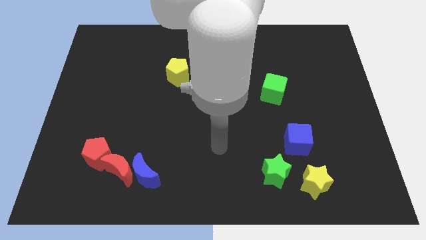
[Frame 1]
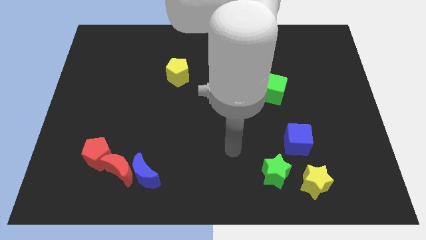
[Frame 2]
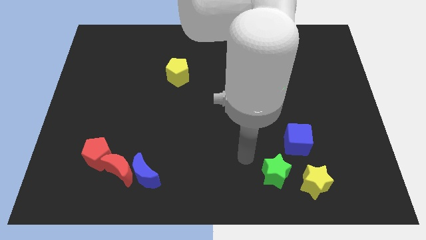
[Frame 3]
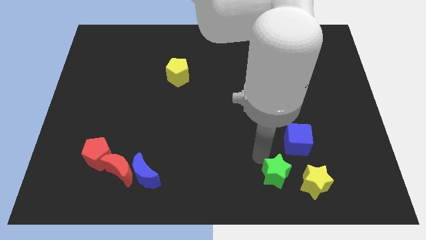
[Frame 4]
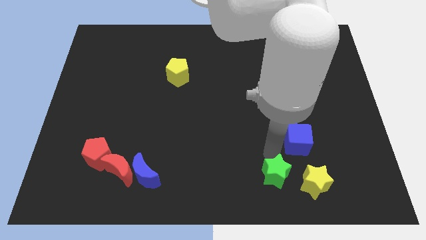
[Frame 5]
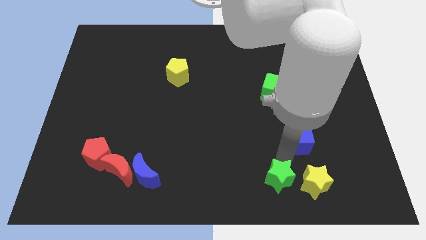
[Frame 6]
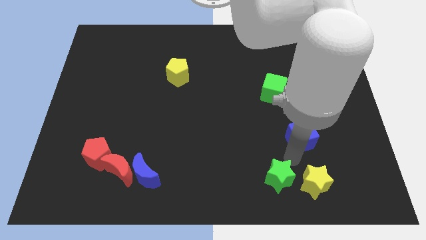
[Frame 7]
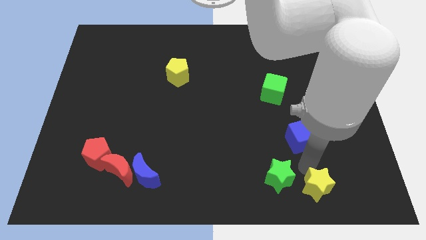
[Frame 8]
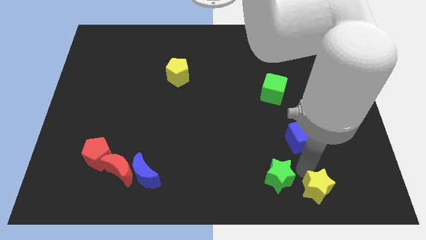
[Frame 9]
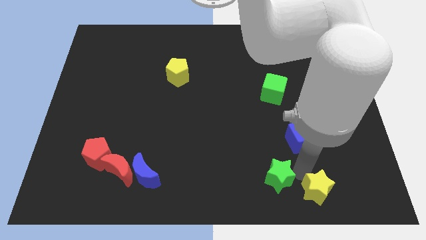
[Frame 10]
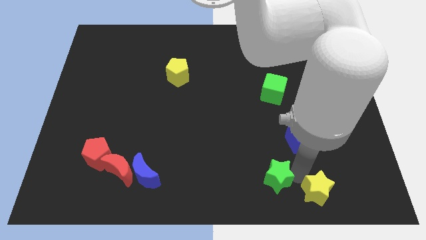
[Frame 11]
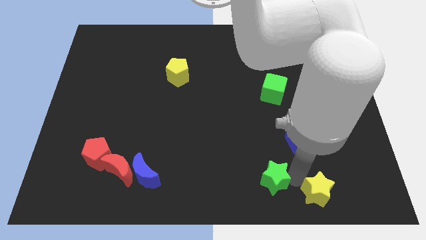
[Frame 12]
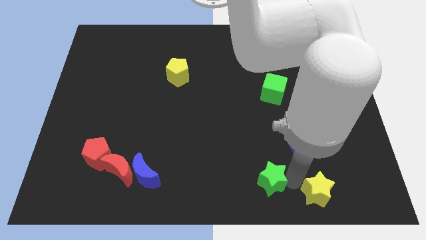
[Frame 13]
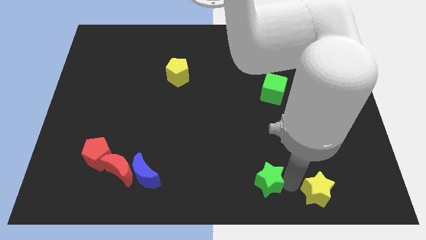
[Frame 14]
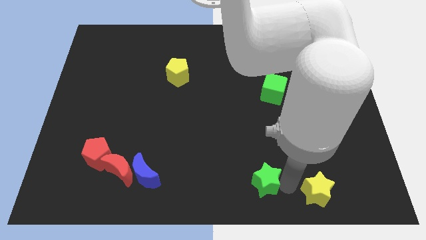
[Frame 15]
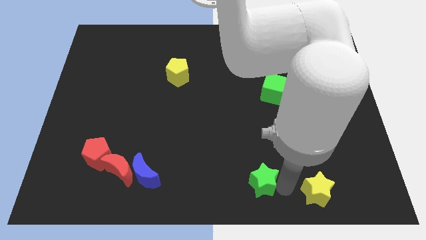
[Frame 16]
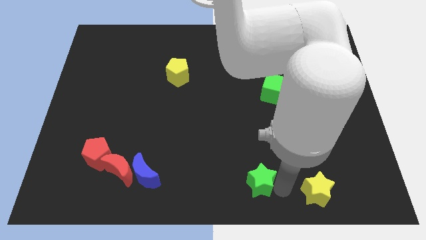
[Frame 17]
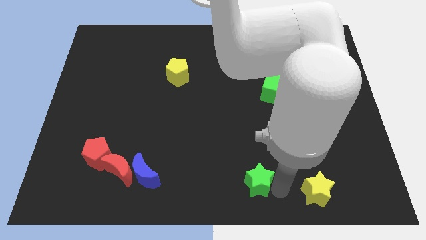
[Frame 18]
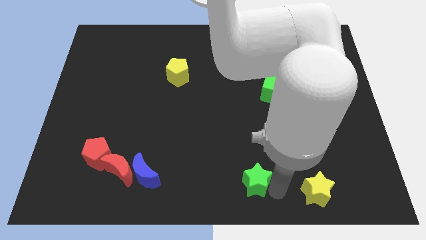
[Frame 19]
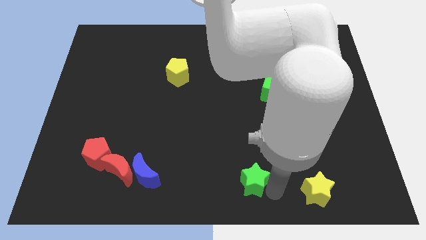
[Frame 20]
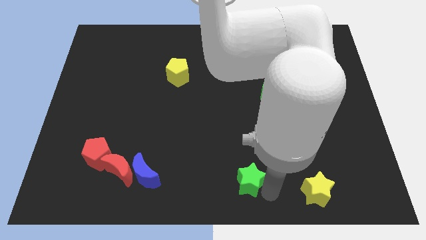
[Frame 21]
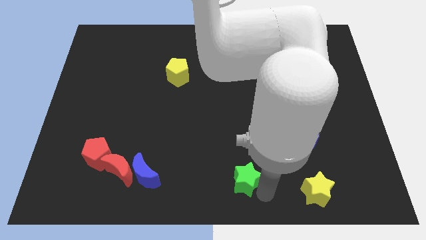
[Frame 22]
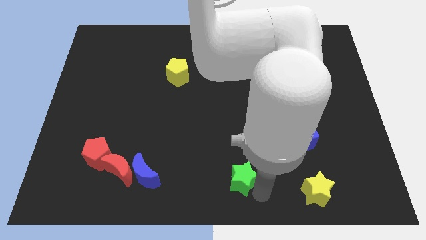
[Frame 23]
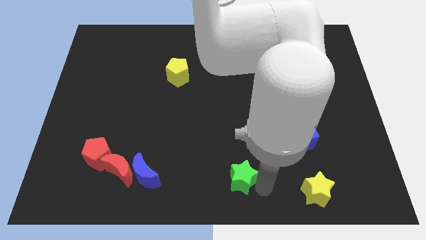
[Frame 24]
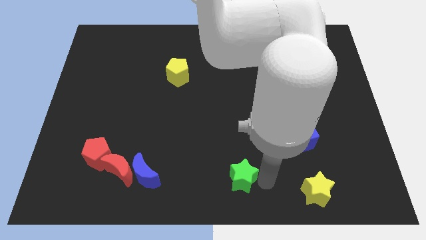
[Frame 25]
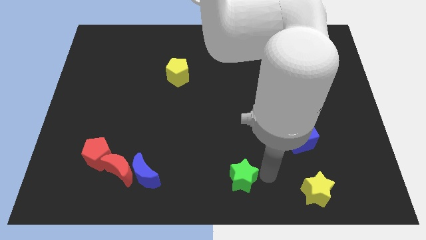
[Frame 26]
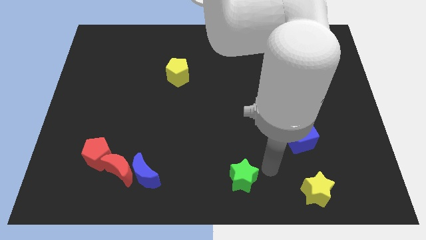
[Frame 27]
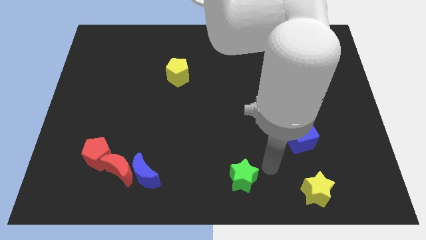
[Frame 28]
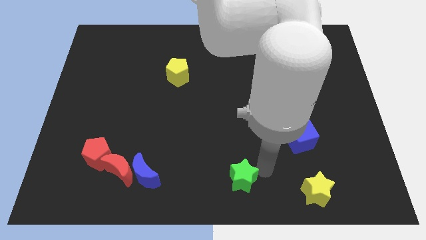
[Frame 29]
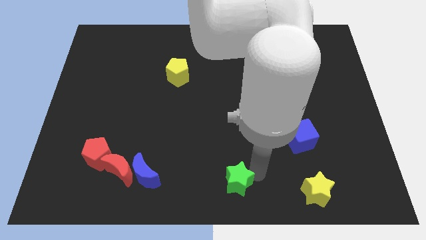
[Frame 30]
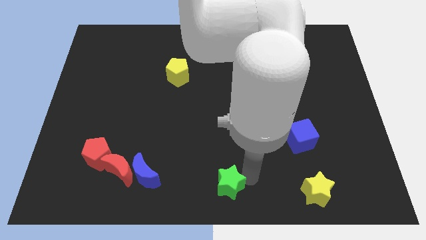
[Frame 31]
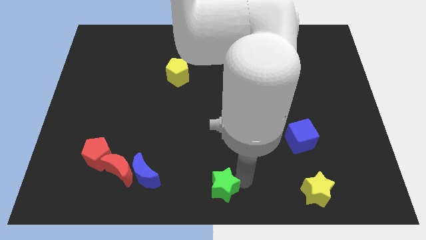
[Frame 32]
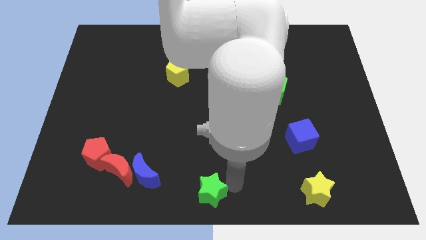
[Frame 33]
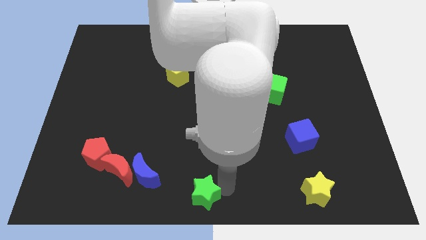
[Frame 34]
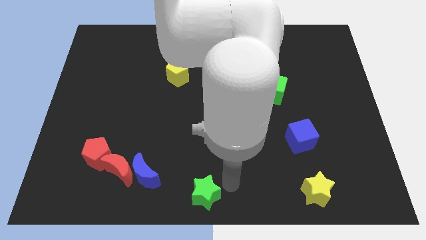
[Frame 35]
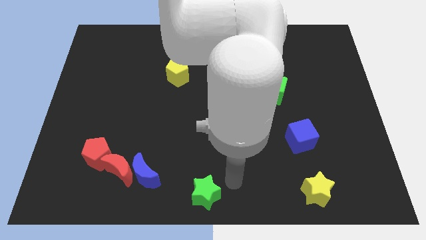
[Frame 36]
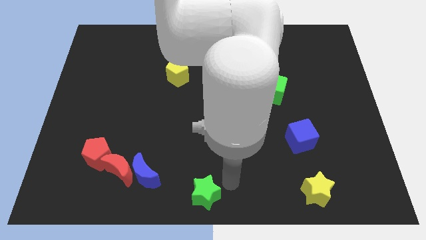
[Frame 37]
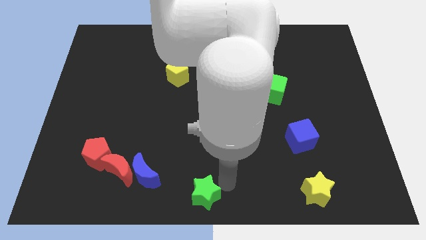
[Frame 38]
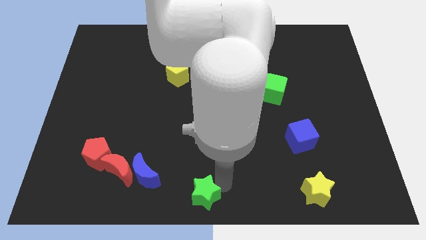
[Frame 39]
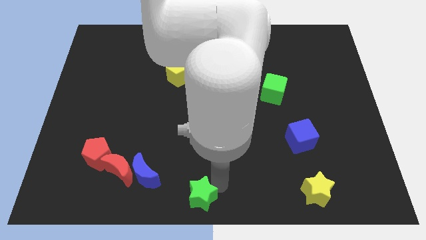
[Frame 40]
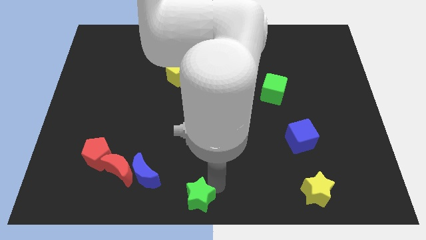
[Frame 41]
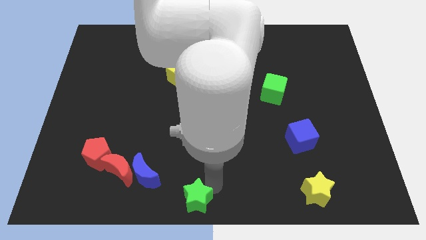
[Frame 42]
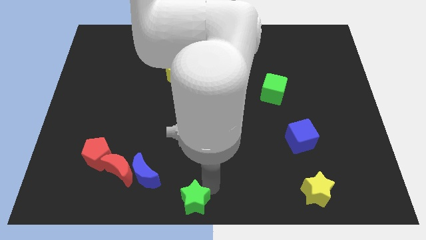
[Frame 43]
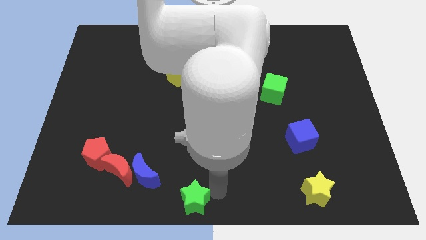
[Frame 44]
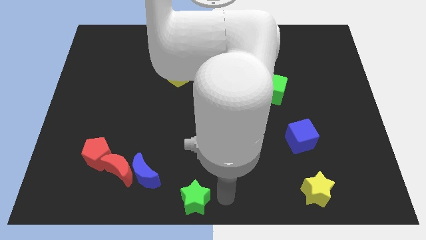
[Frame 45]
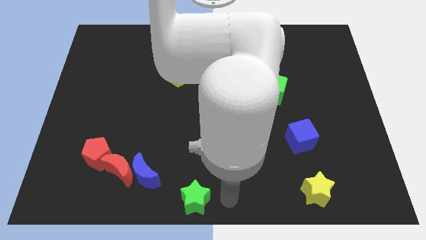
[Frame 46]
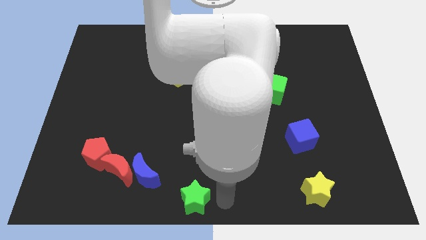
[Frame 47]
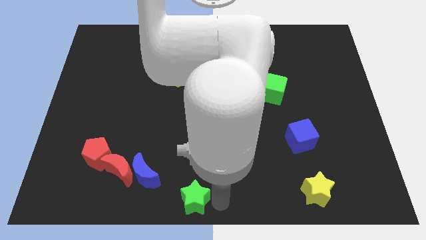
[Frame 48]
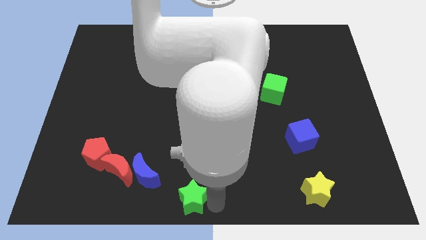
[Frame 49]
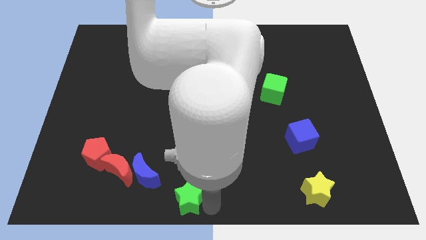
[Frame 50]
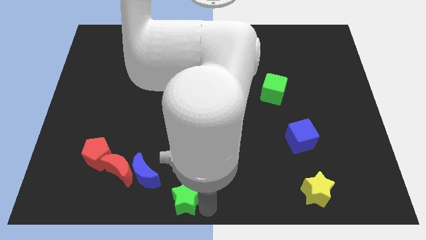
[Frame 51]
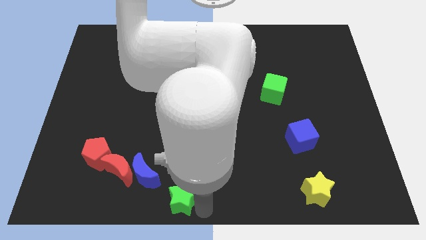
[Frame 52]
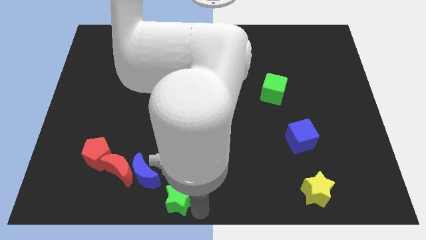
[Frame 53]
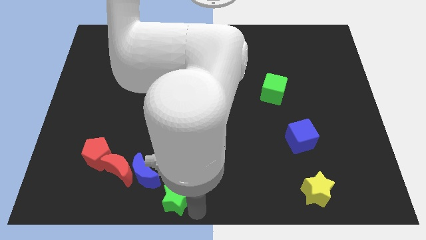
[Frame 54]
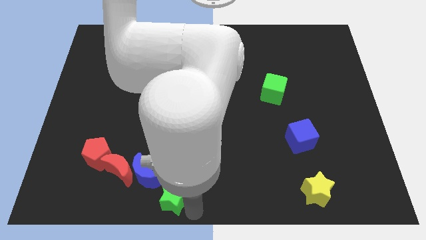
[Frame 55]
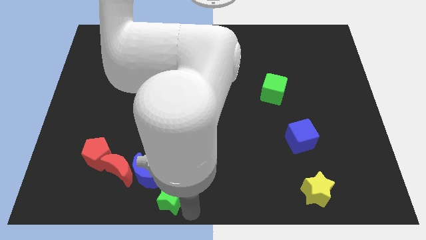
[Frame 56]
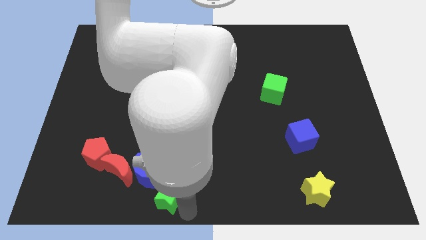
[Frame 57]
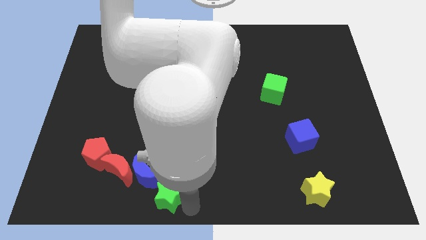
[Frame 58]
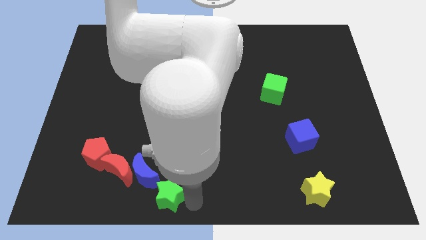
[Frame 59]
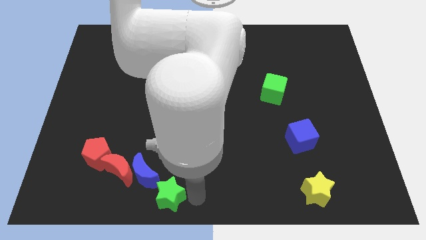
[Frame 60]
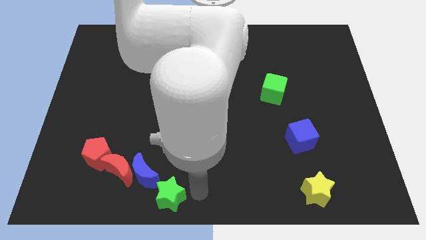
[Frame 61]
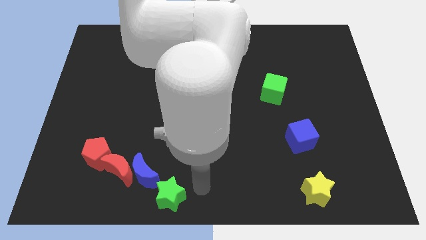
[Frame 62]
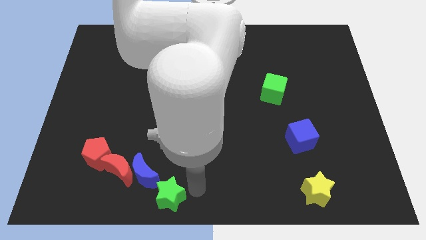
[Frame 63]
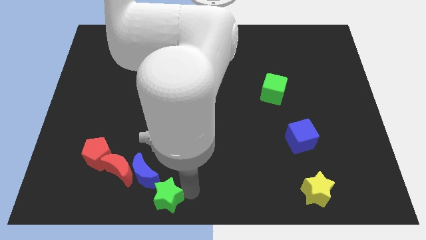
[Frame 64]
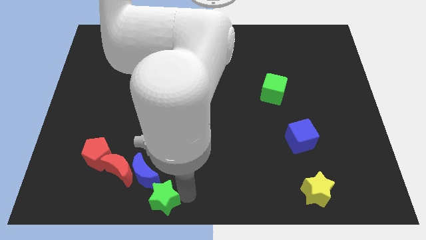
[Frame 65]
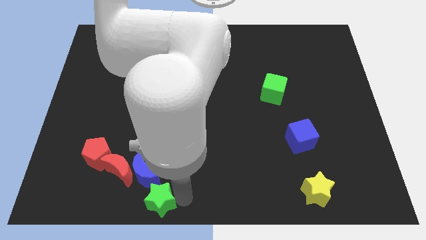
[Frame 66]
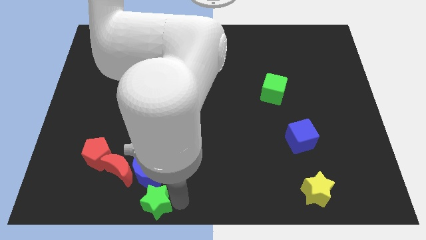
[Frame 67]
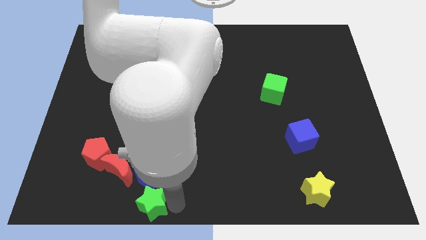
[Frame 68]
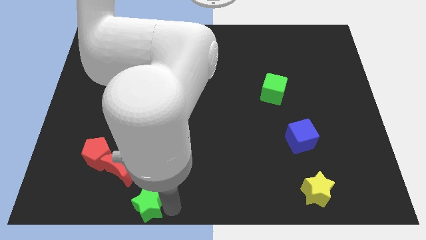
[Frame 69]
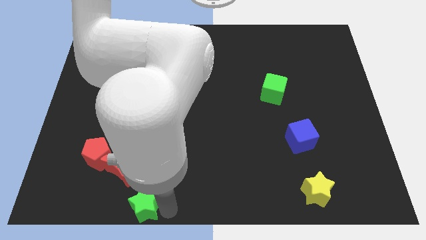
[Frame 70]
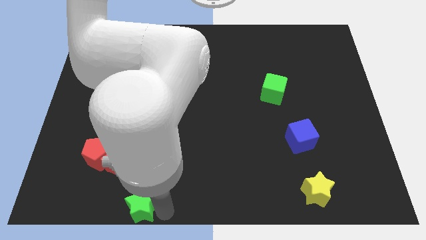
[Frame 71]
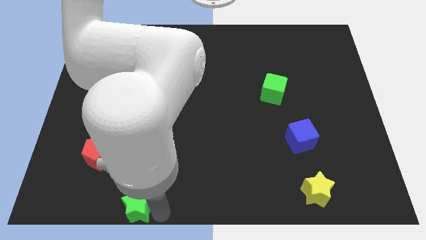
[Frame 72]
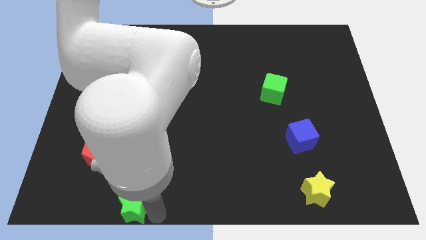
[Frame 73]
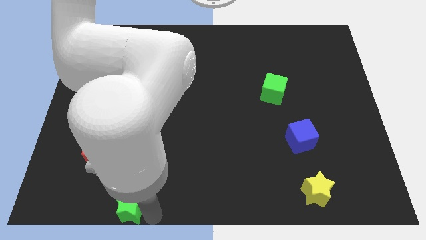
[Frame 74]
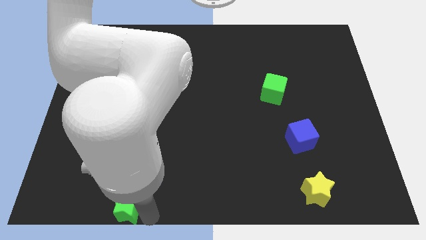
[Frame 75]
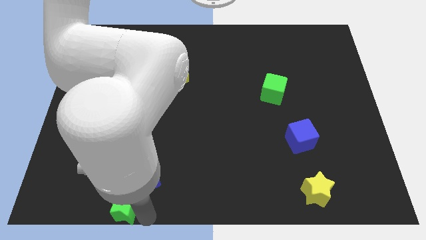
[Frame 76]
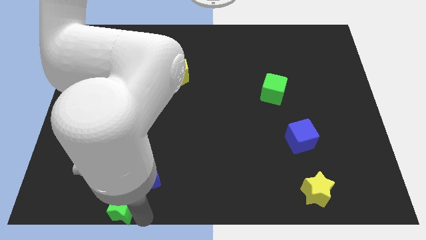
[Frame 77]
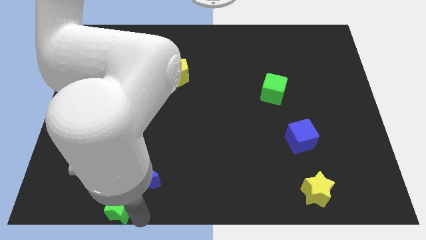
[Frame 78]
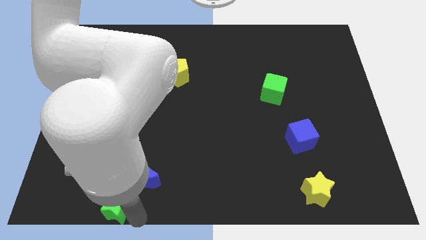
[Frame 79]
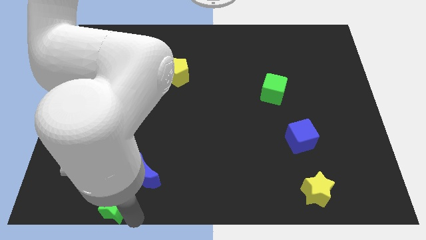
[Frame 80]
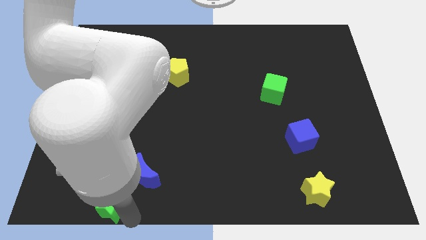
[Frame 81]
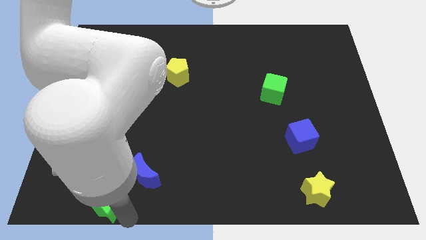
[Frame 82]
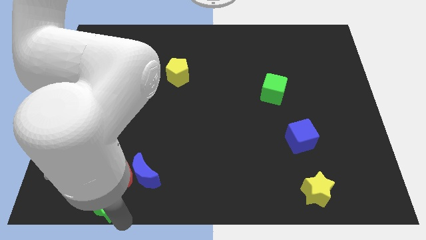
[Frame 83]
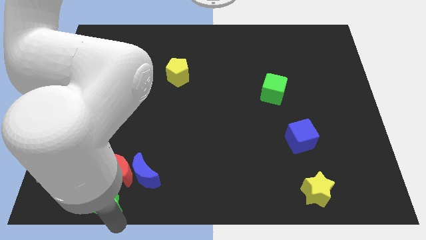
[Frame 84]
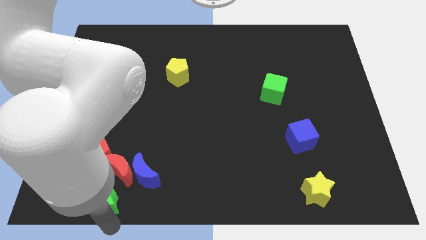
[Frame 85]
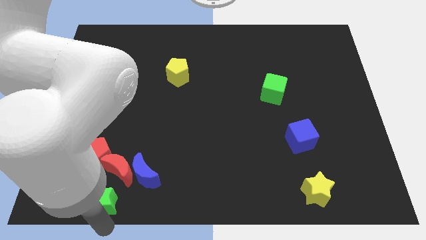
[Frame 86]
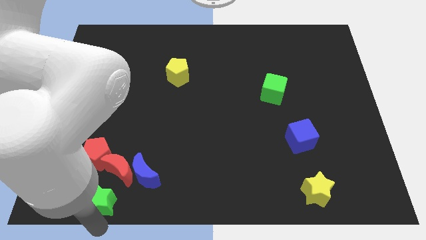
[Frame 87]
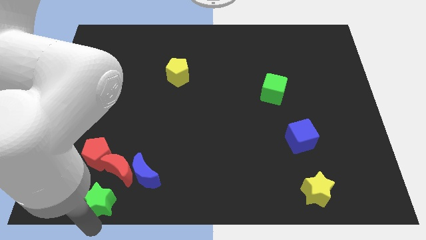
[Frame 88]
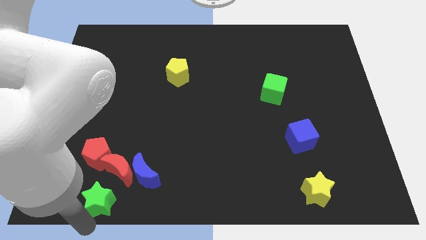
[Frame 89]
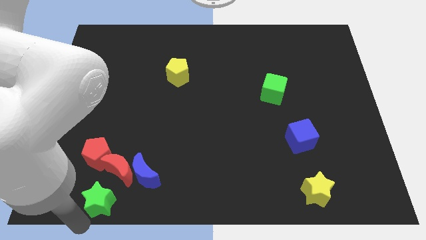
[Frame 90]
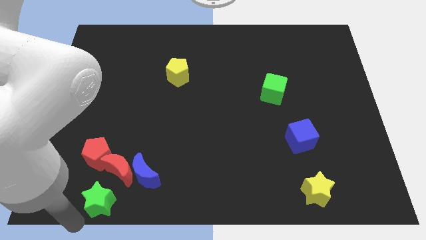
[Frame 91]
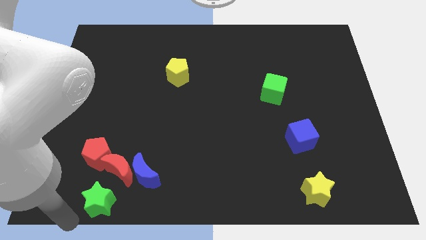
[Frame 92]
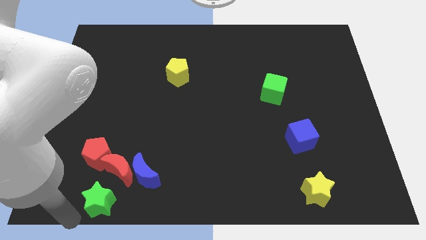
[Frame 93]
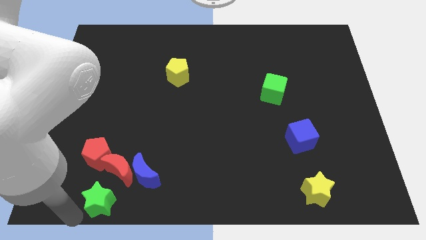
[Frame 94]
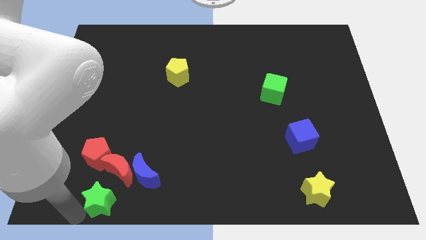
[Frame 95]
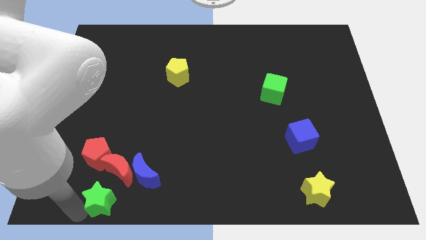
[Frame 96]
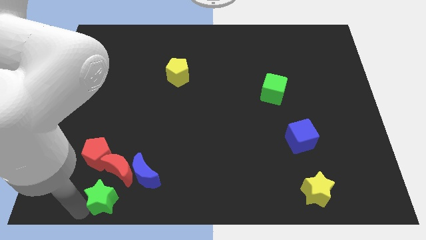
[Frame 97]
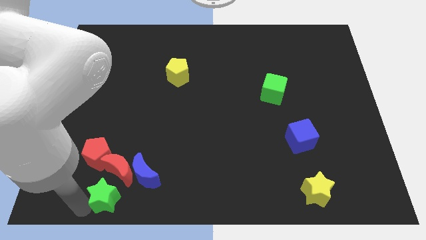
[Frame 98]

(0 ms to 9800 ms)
slide the green star to the left of the blue moon
